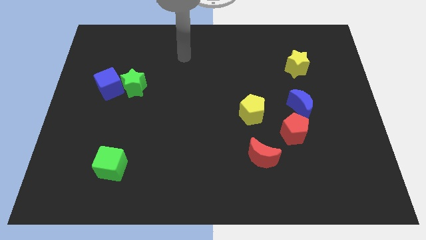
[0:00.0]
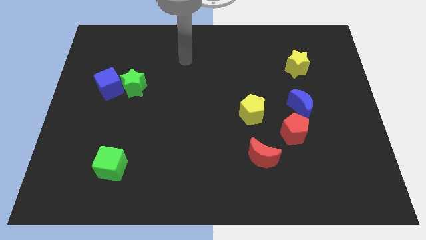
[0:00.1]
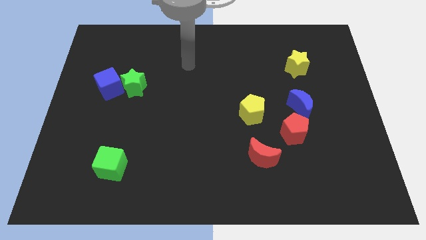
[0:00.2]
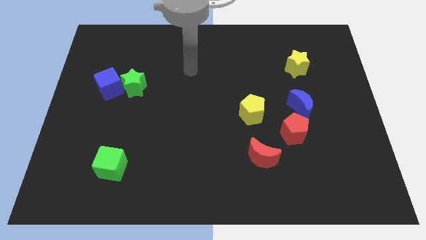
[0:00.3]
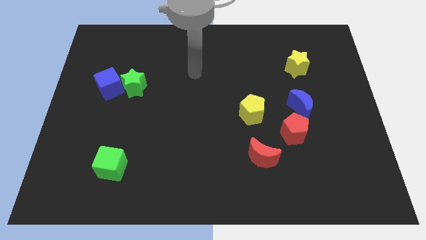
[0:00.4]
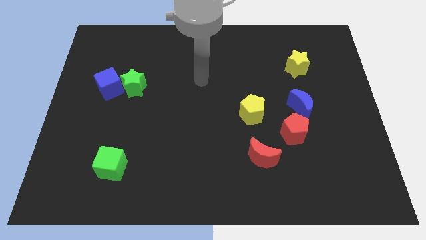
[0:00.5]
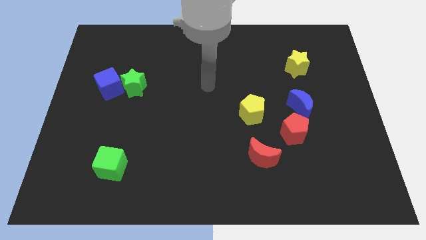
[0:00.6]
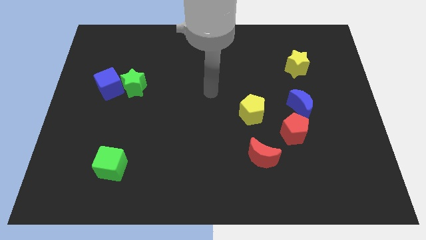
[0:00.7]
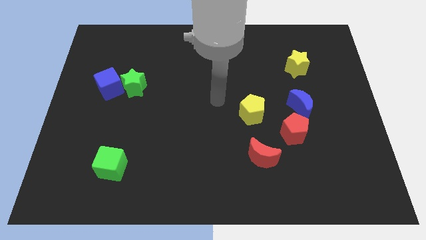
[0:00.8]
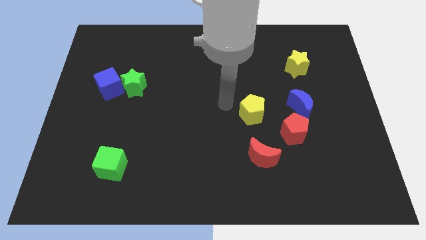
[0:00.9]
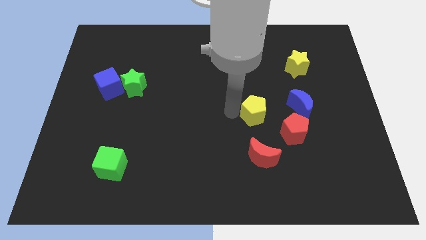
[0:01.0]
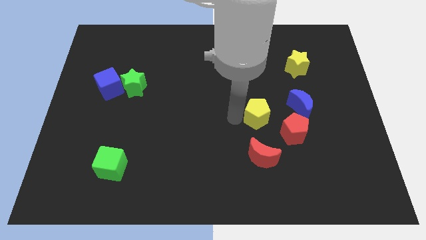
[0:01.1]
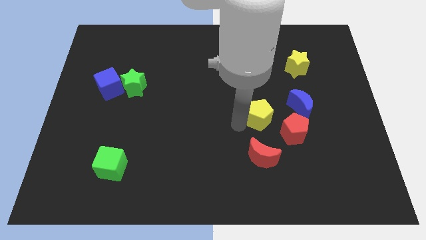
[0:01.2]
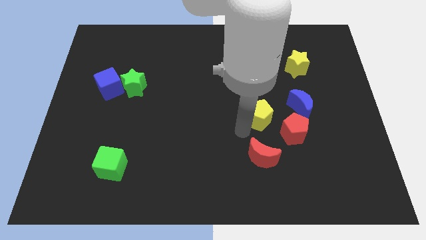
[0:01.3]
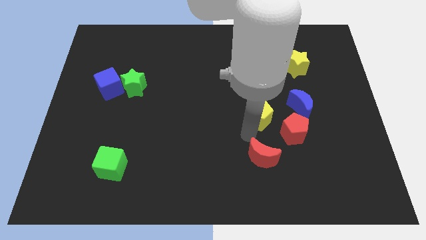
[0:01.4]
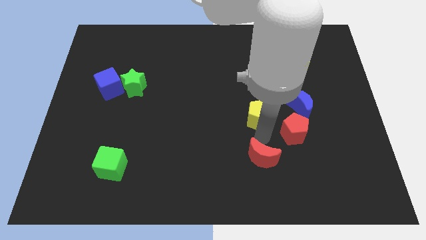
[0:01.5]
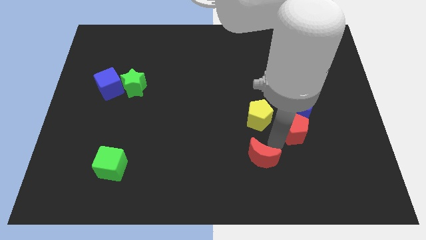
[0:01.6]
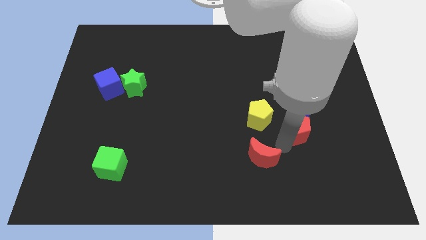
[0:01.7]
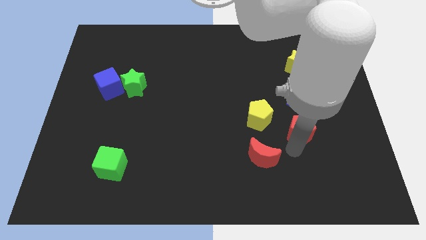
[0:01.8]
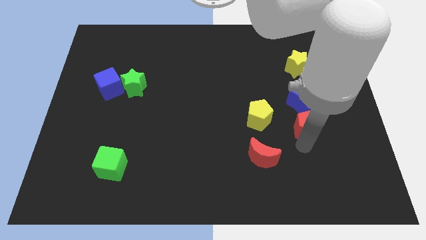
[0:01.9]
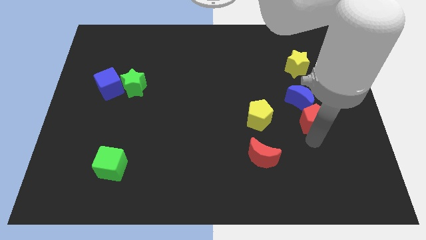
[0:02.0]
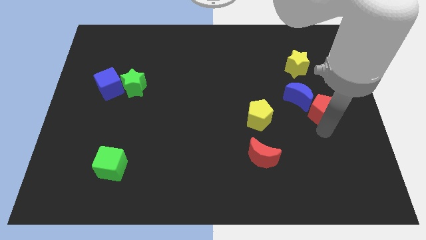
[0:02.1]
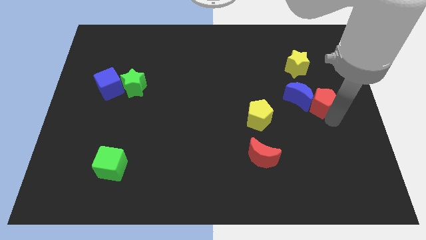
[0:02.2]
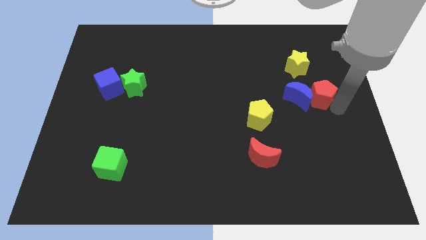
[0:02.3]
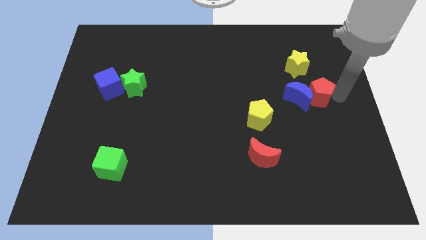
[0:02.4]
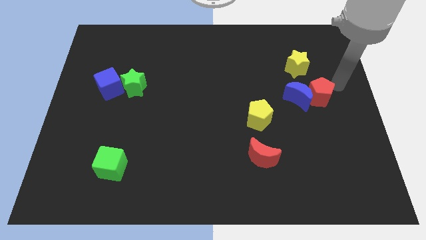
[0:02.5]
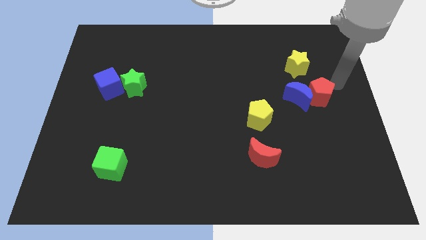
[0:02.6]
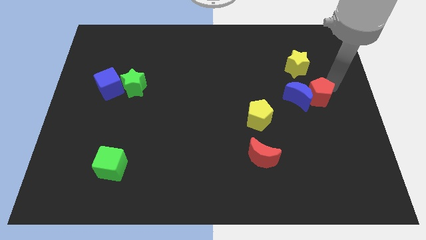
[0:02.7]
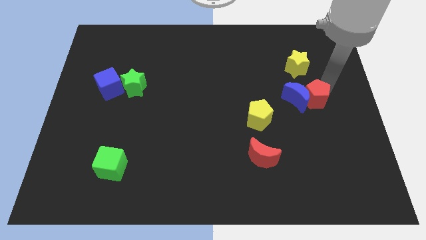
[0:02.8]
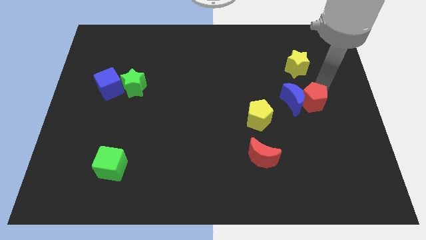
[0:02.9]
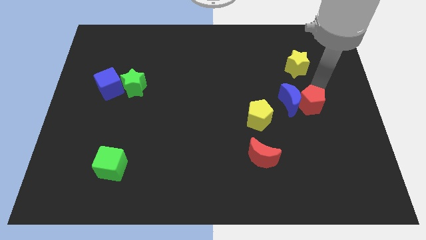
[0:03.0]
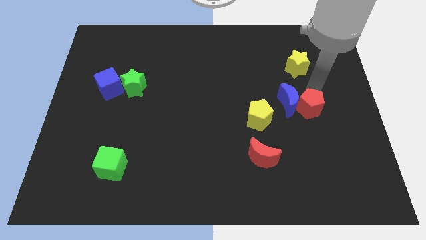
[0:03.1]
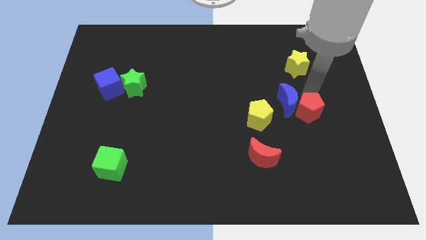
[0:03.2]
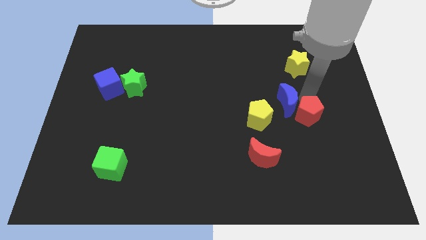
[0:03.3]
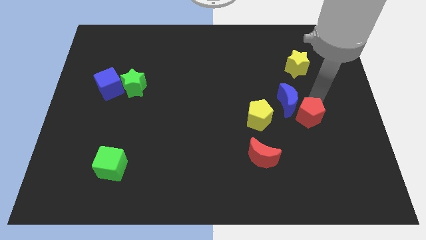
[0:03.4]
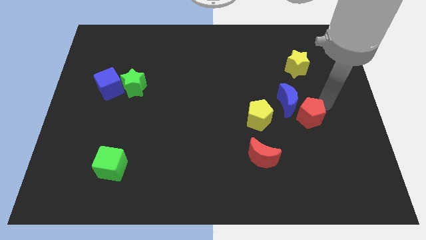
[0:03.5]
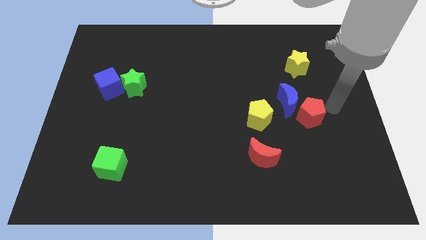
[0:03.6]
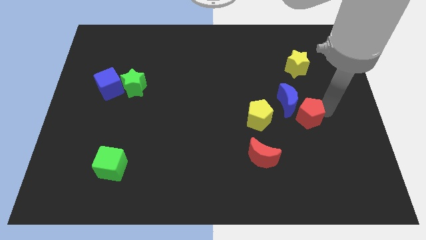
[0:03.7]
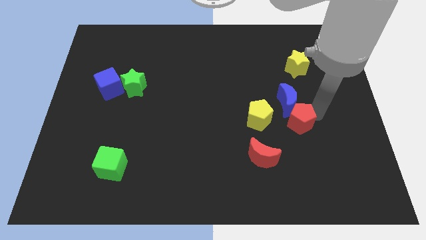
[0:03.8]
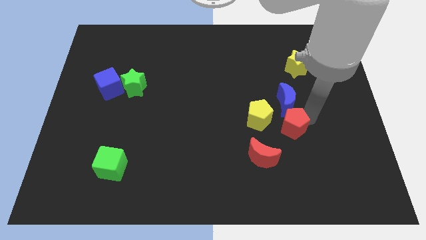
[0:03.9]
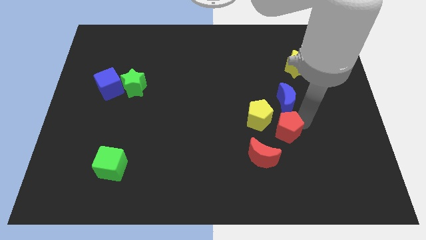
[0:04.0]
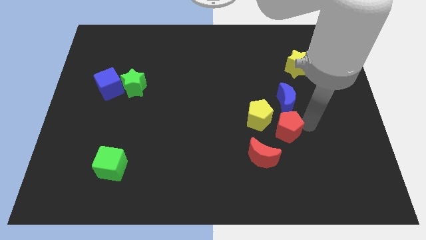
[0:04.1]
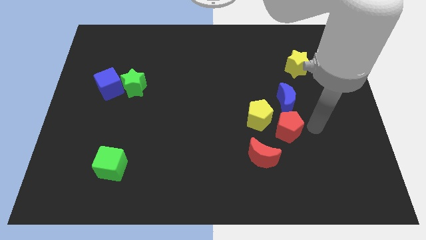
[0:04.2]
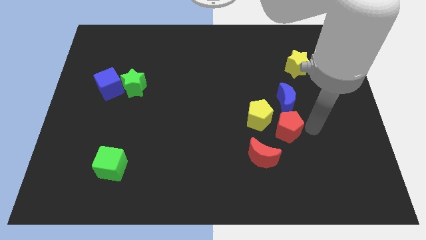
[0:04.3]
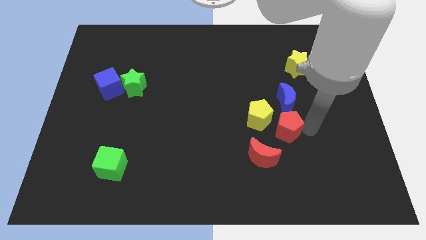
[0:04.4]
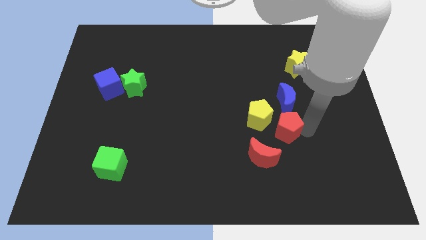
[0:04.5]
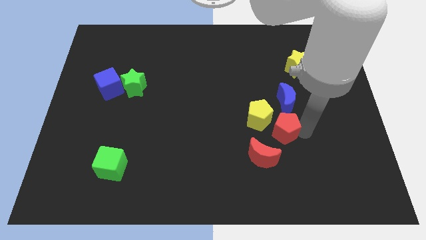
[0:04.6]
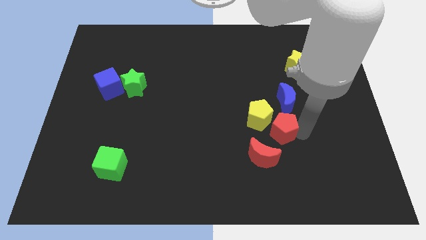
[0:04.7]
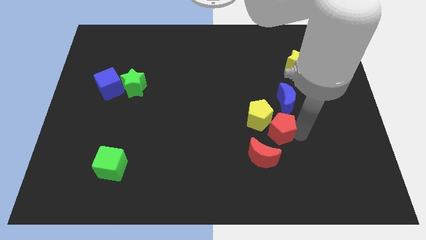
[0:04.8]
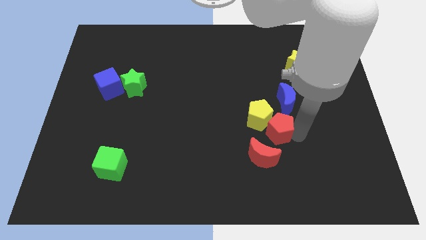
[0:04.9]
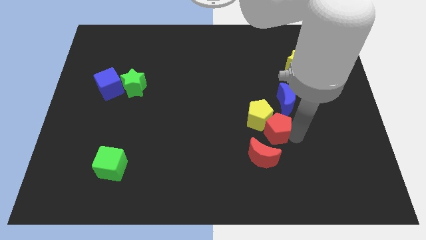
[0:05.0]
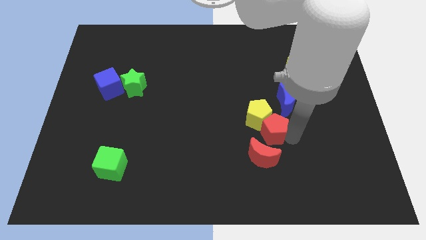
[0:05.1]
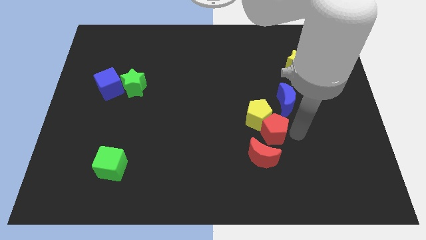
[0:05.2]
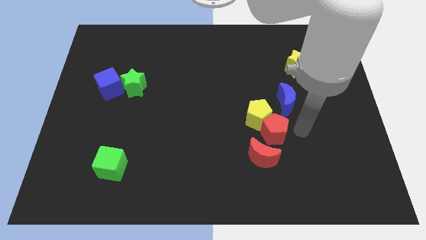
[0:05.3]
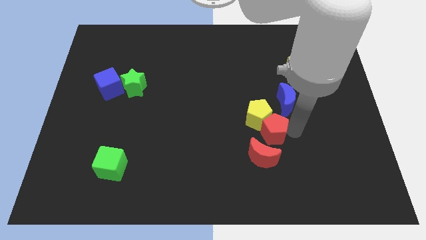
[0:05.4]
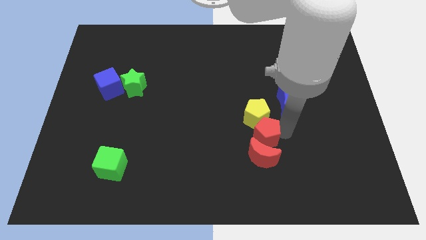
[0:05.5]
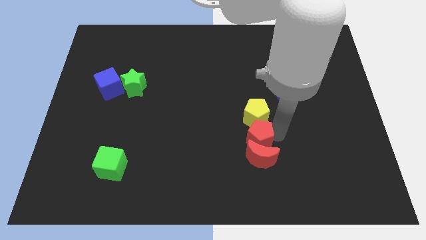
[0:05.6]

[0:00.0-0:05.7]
move the red pentagon diagonally down and to the left of the yellow pentagon

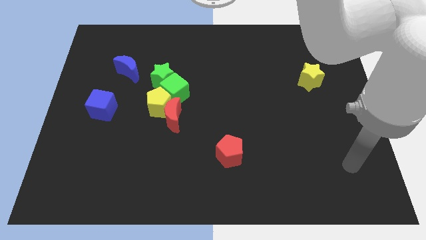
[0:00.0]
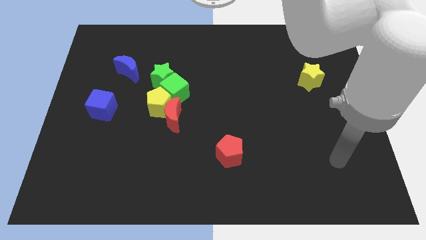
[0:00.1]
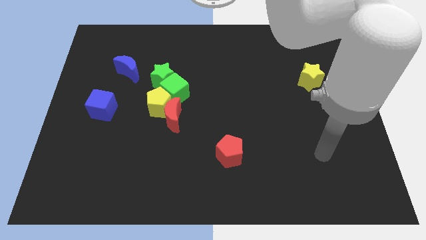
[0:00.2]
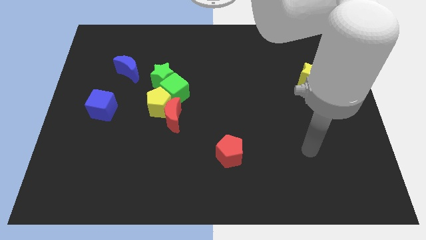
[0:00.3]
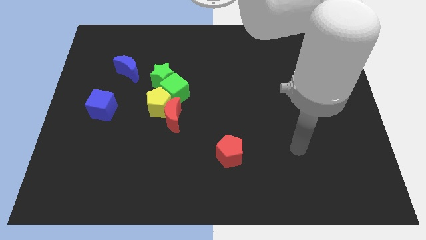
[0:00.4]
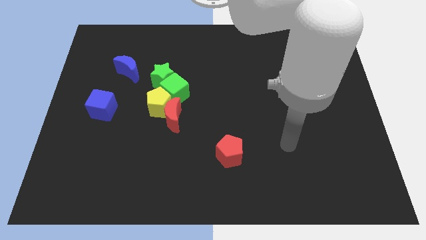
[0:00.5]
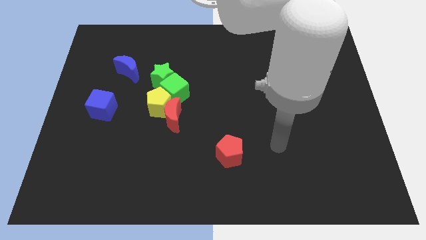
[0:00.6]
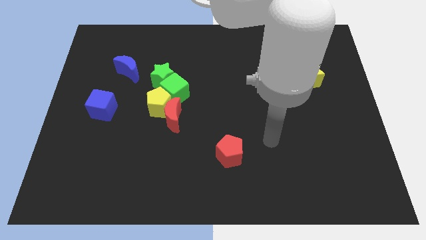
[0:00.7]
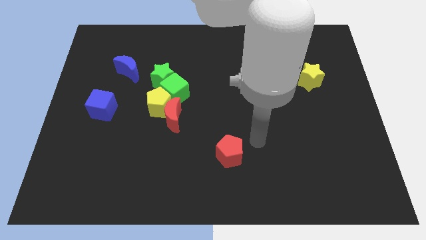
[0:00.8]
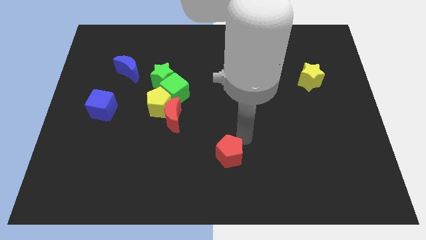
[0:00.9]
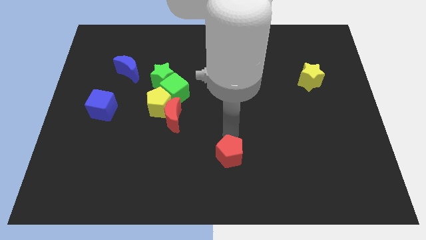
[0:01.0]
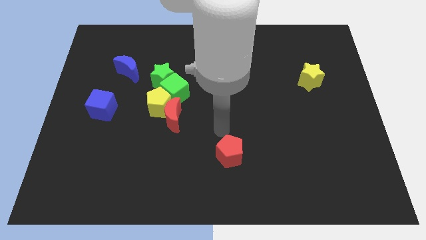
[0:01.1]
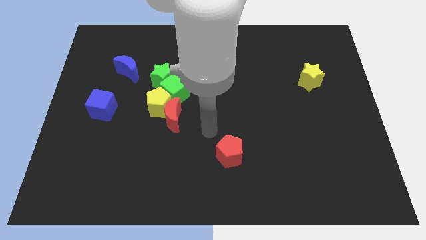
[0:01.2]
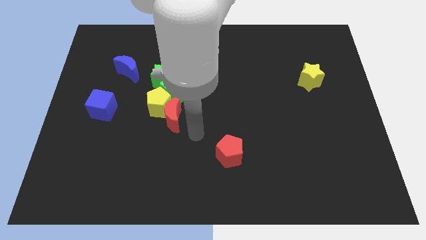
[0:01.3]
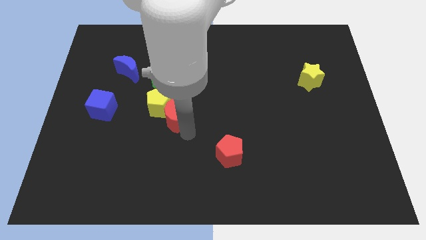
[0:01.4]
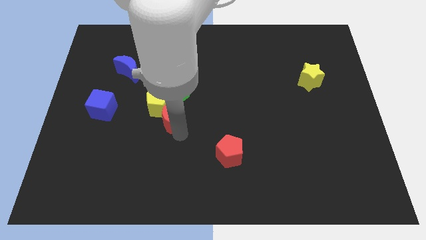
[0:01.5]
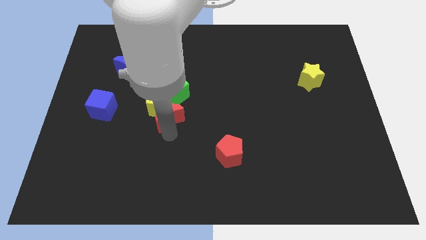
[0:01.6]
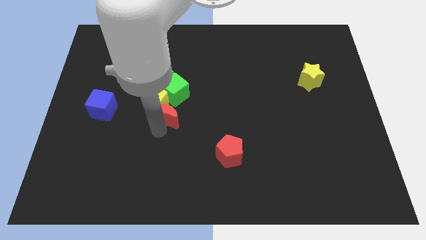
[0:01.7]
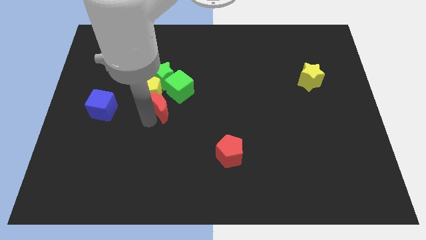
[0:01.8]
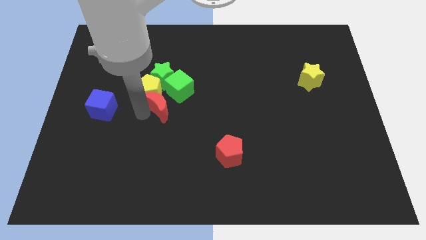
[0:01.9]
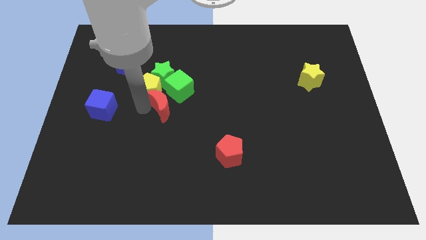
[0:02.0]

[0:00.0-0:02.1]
move the green star to the right side of the yellow pentagon
